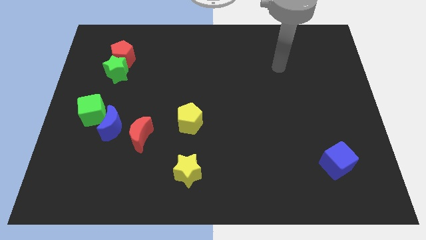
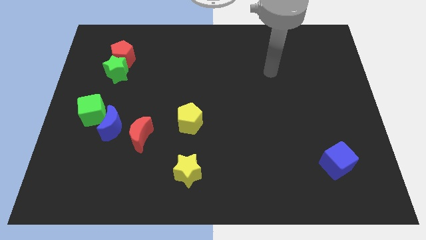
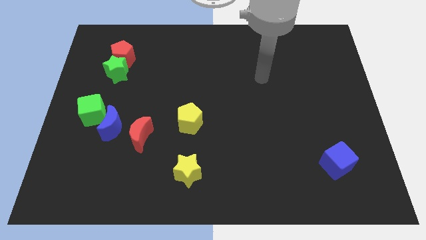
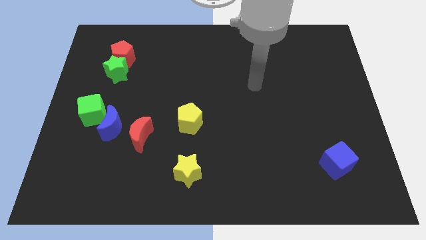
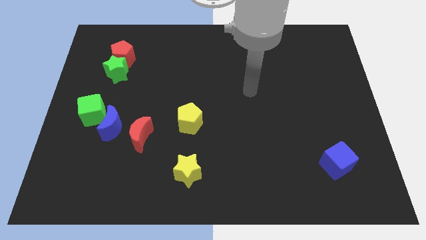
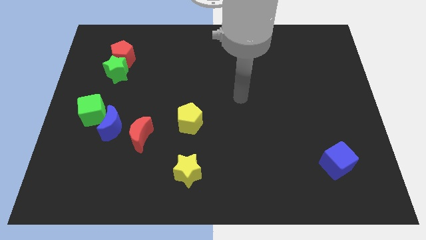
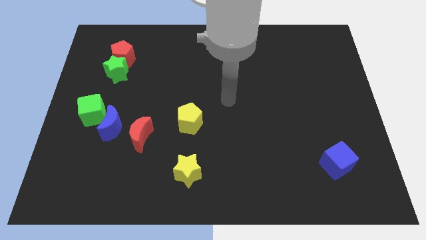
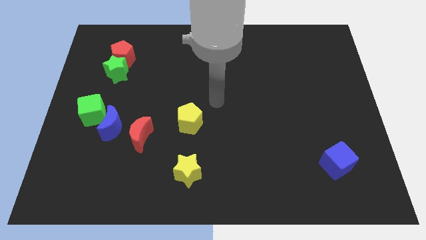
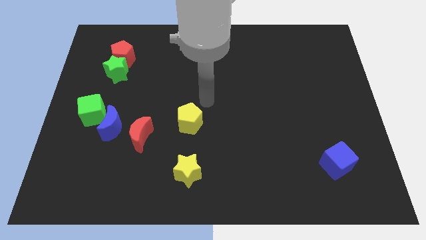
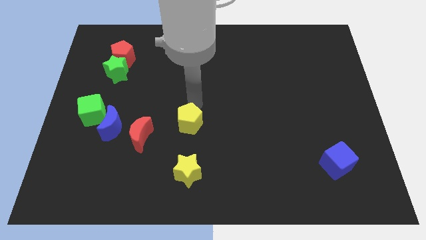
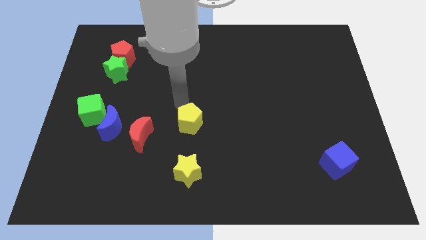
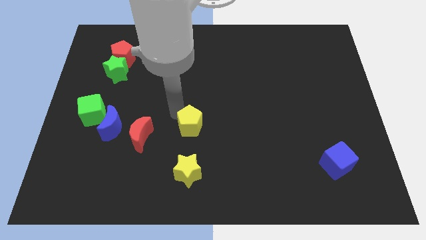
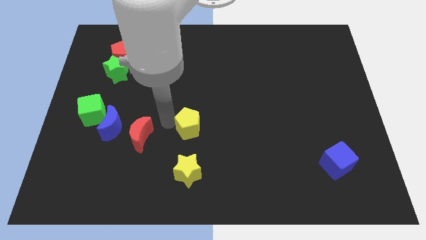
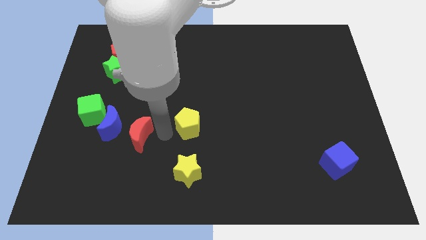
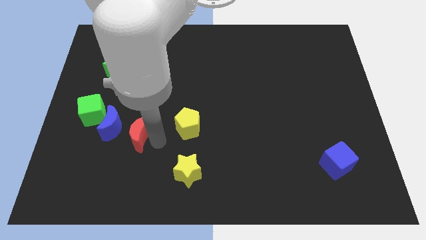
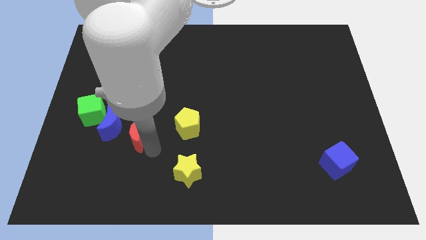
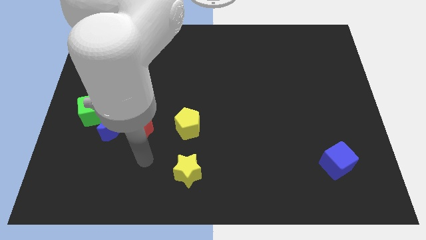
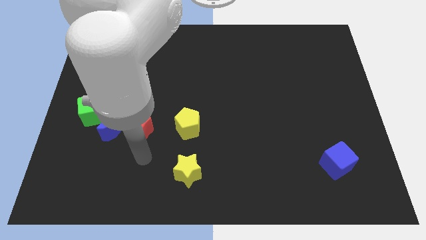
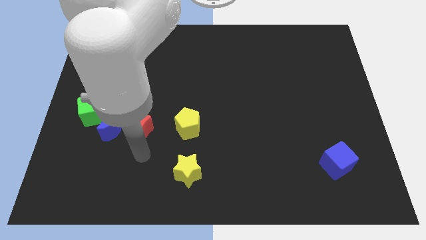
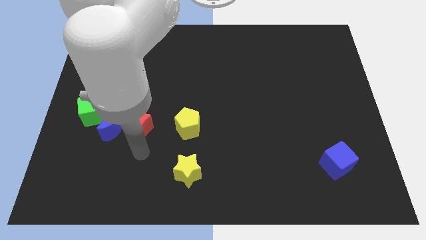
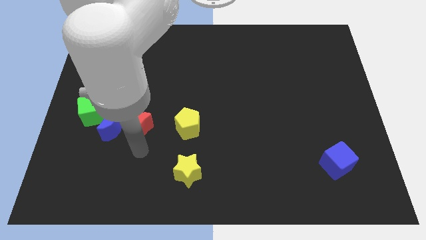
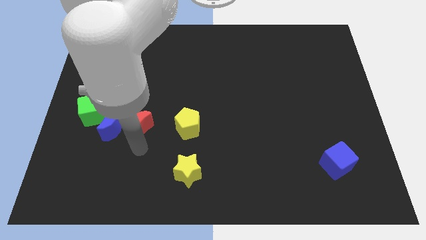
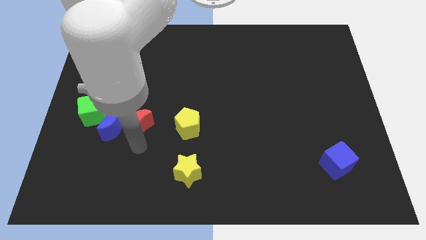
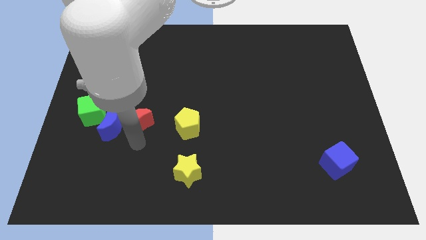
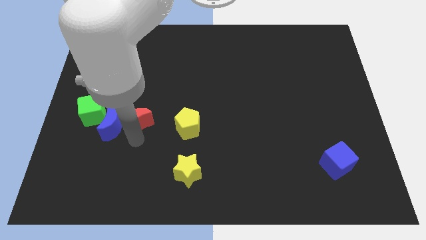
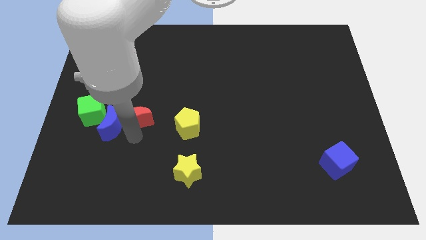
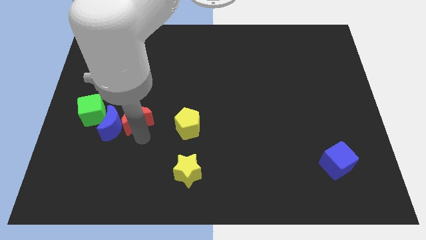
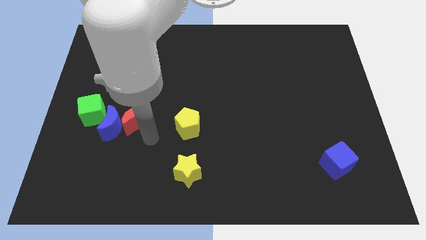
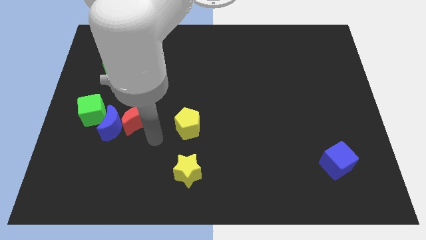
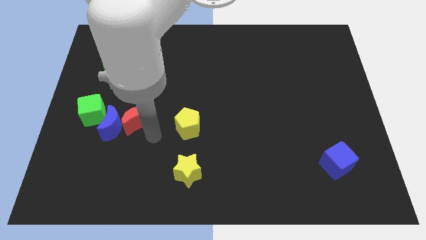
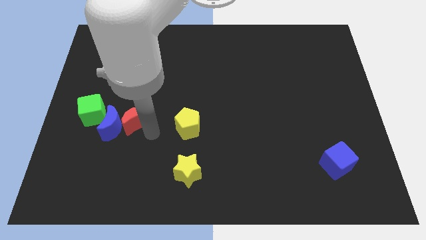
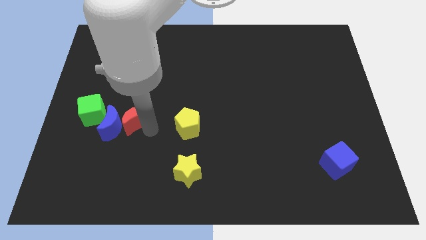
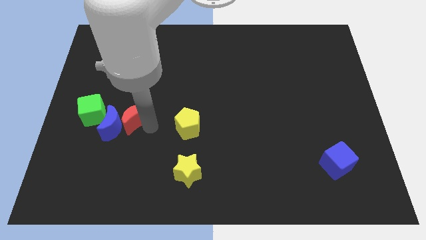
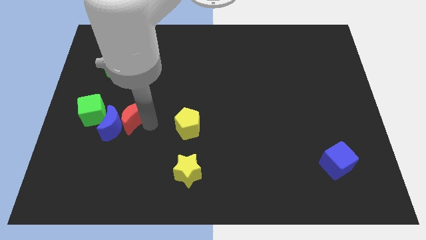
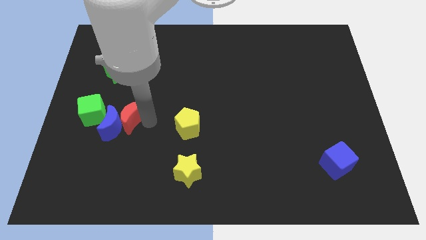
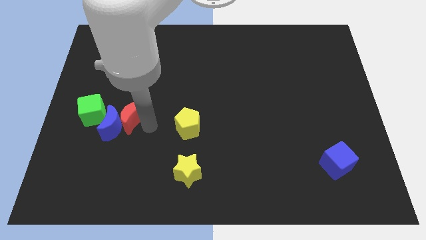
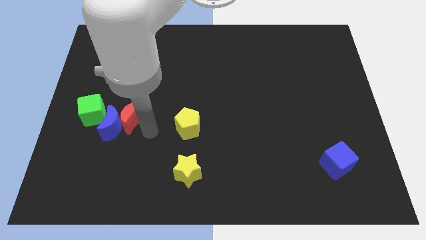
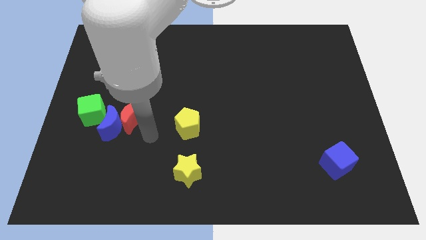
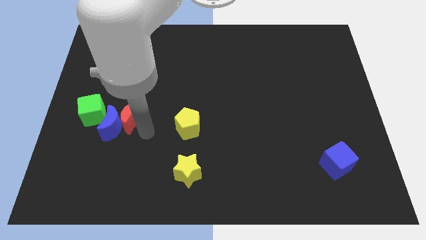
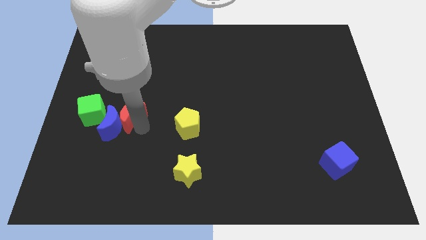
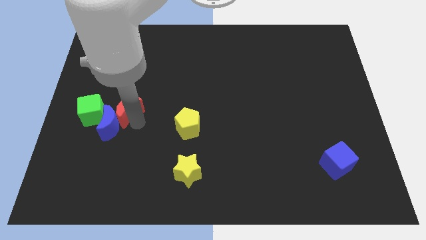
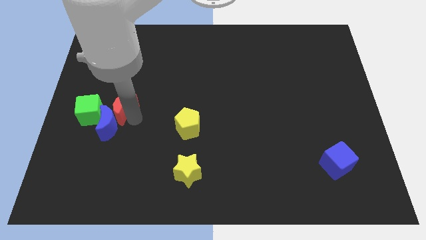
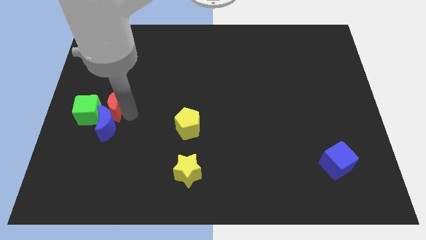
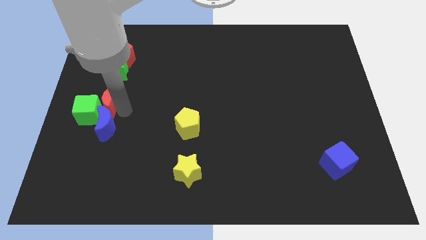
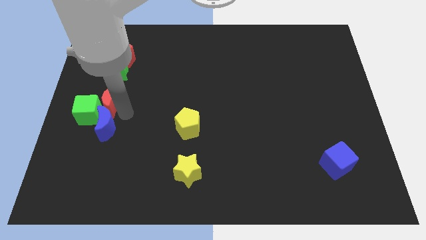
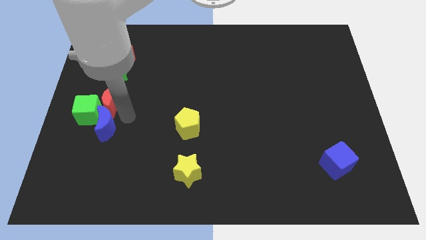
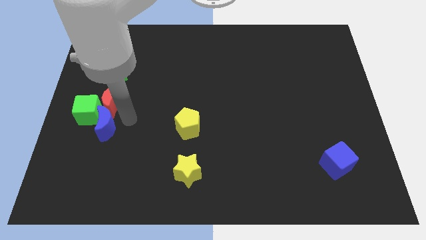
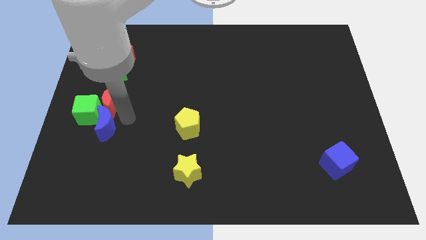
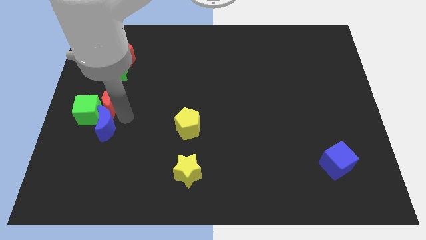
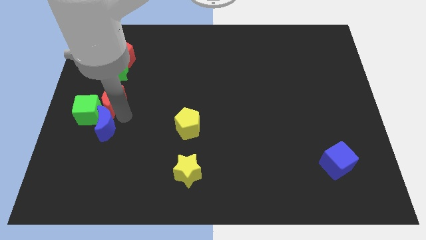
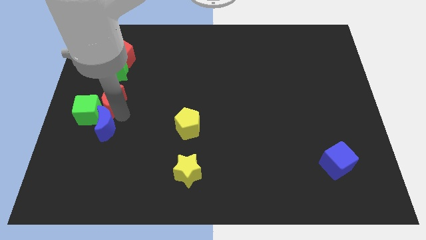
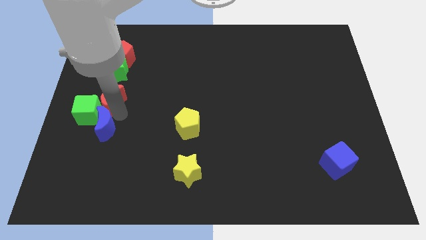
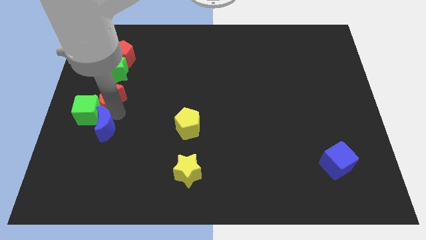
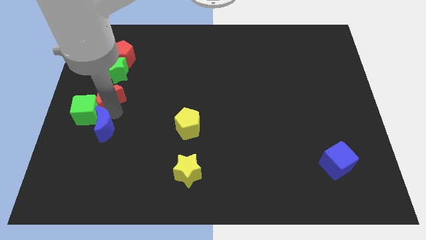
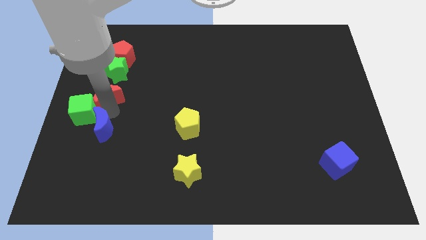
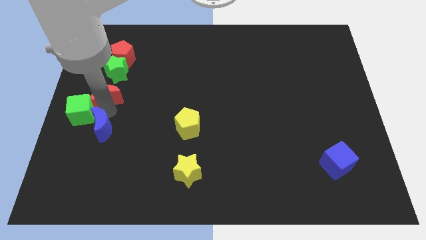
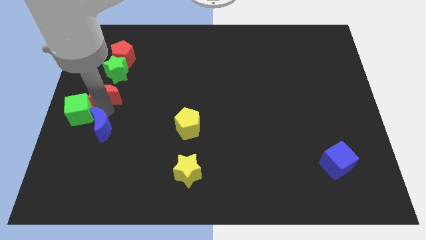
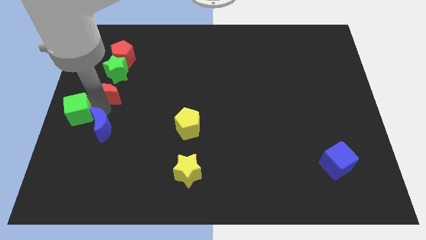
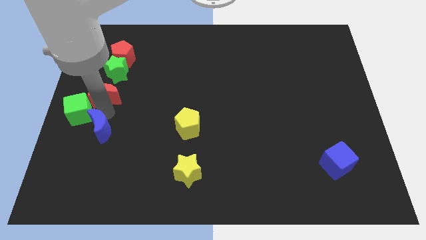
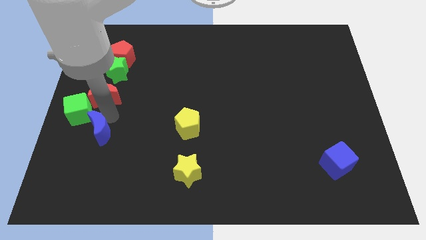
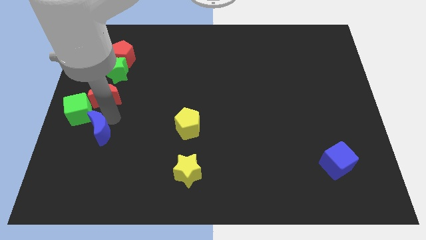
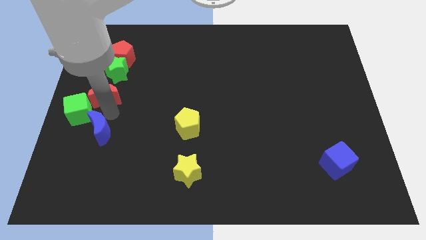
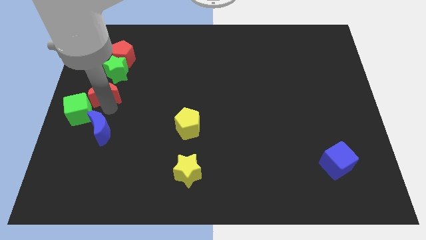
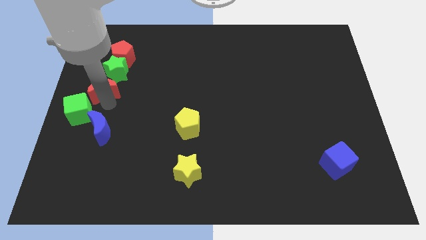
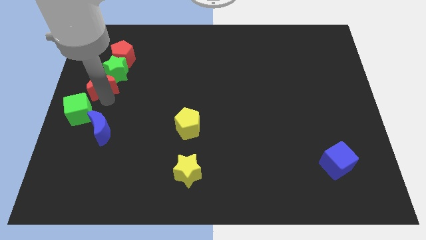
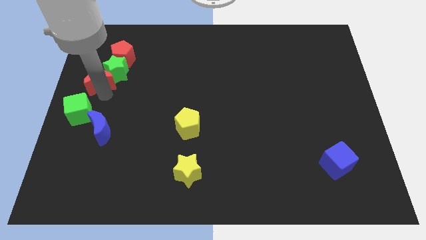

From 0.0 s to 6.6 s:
move the red moon to the bottom left side of the red pentagon

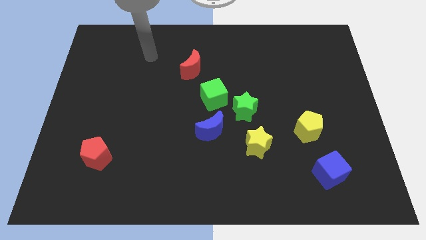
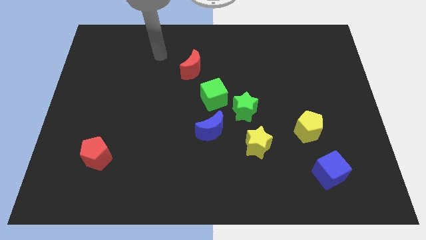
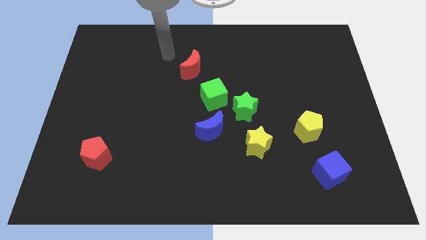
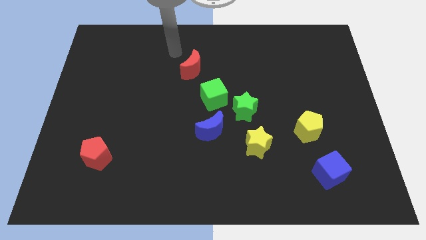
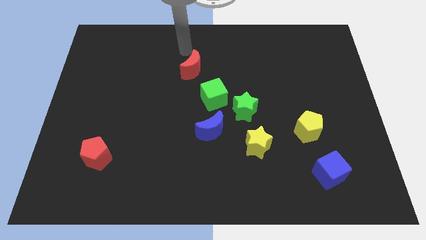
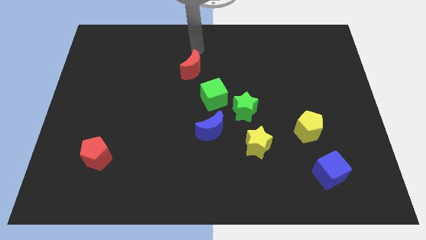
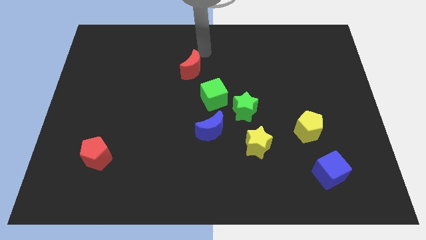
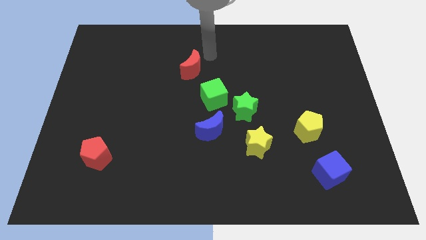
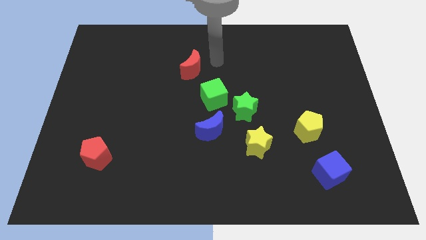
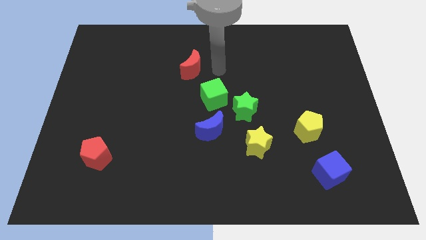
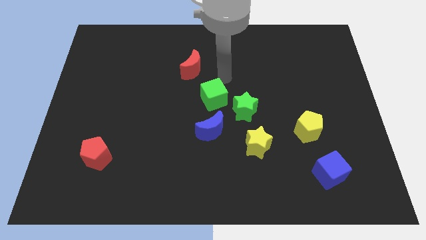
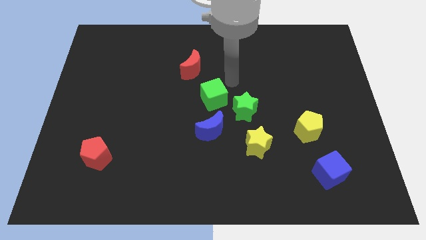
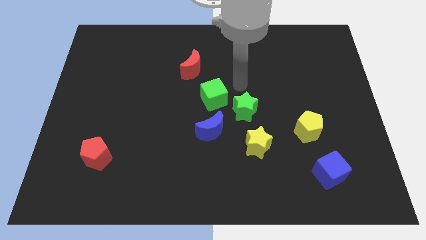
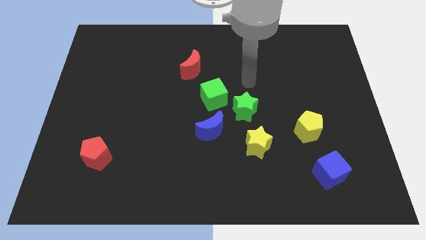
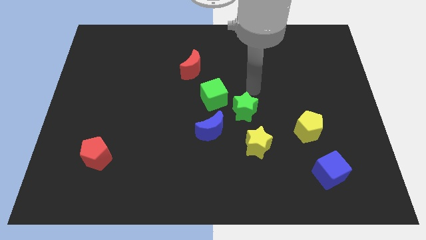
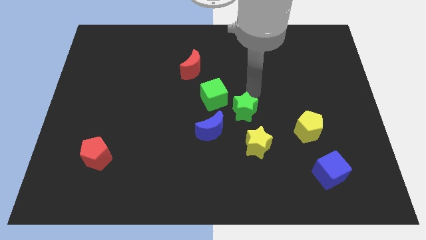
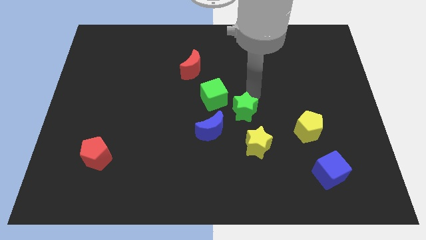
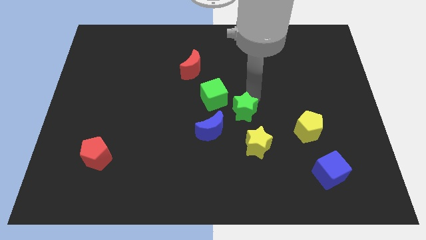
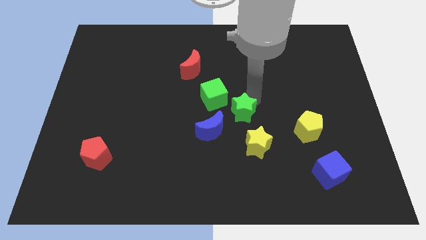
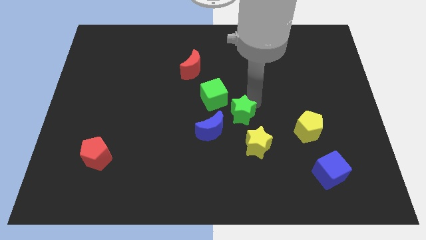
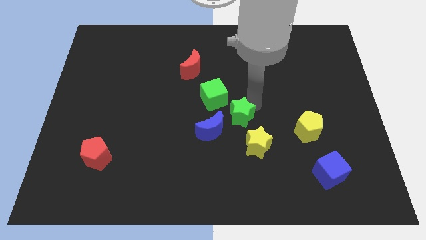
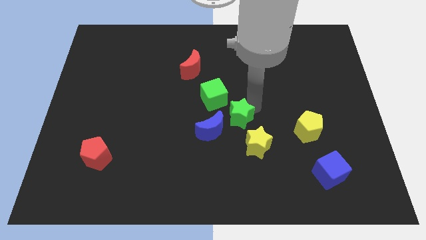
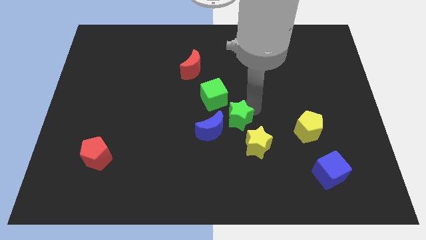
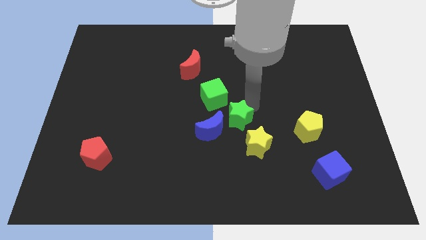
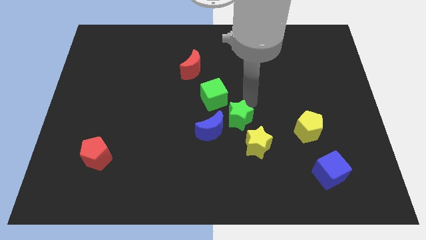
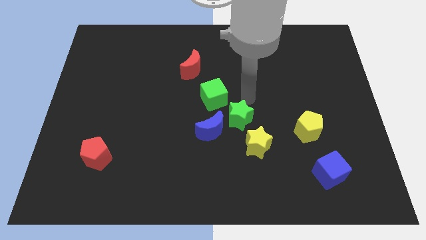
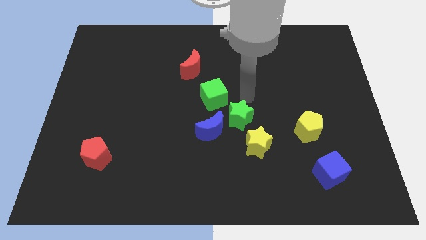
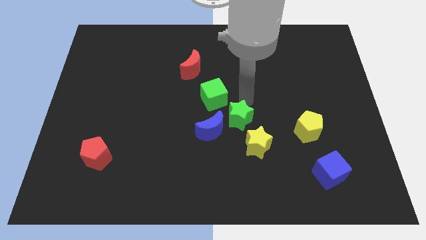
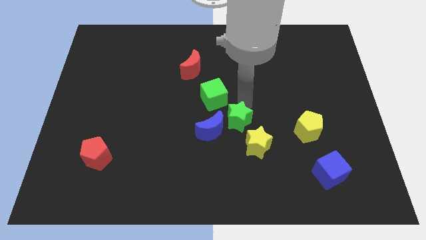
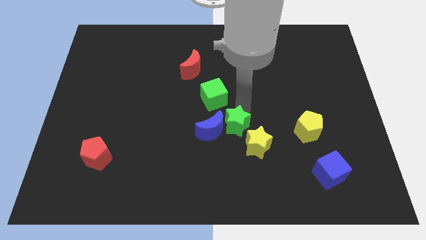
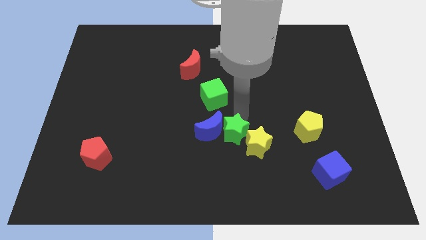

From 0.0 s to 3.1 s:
move the green star to the bottom of the green cube
